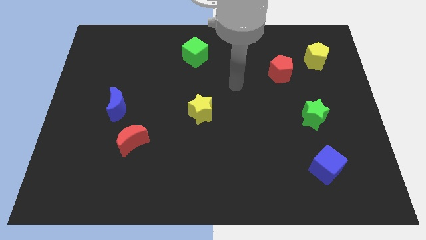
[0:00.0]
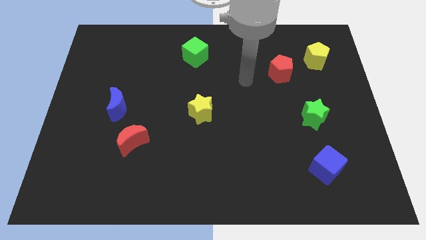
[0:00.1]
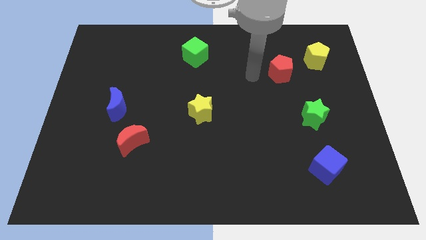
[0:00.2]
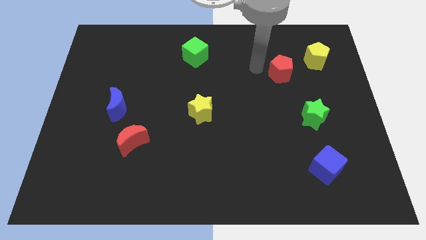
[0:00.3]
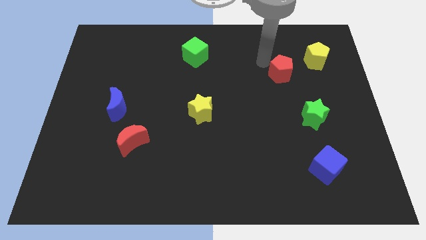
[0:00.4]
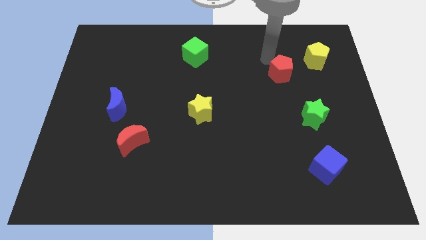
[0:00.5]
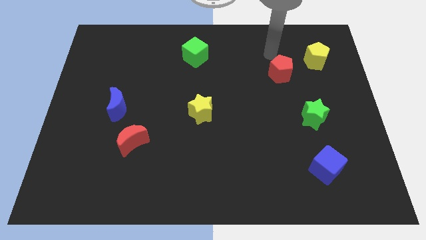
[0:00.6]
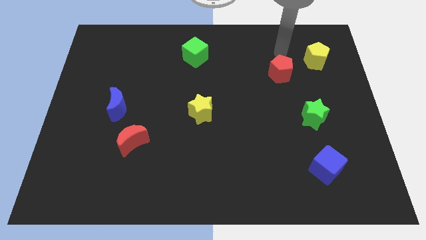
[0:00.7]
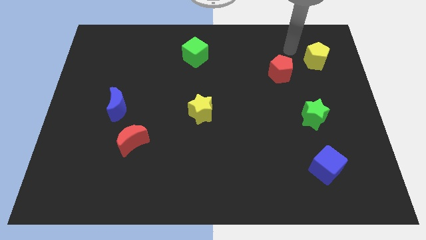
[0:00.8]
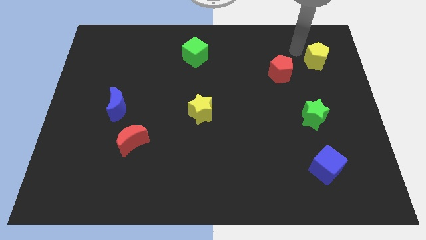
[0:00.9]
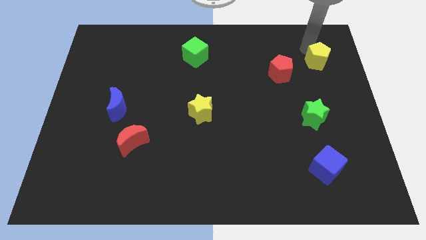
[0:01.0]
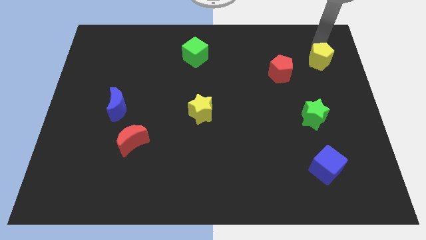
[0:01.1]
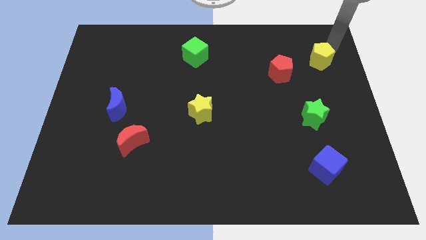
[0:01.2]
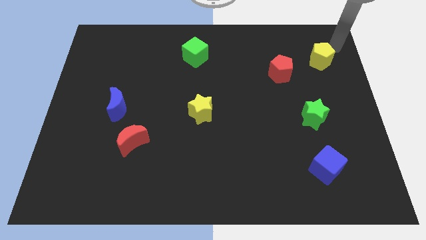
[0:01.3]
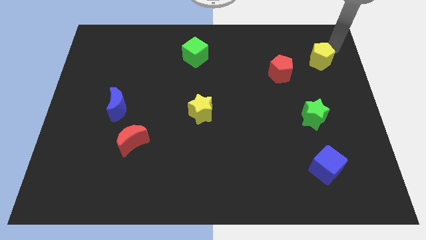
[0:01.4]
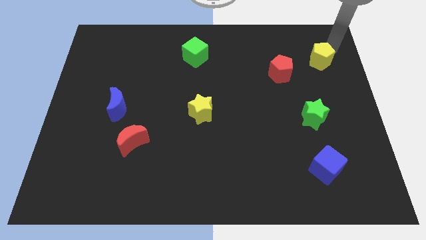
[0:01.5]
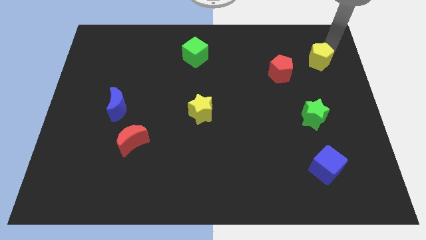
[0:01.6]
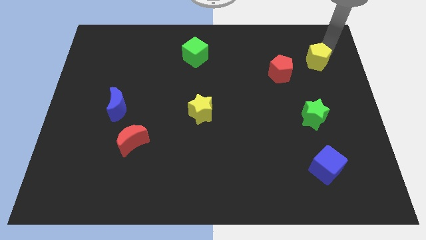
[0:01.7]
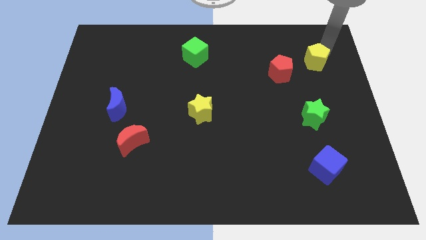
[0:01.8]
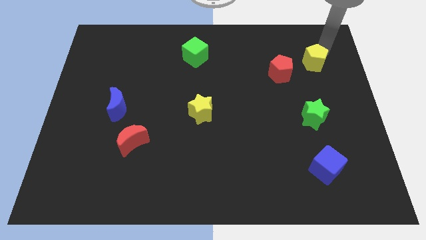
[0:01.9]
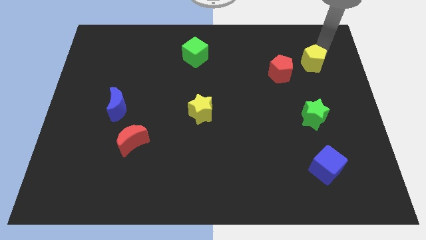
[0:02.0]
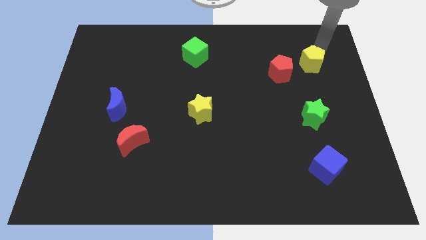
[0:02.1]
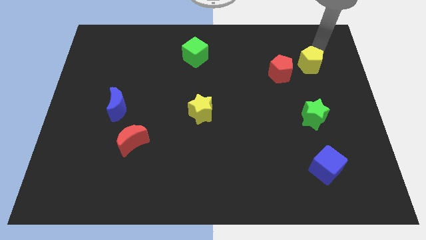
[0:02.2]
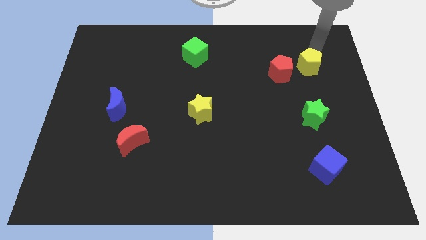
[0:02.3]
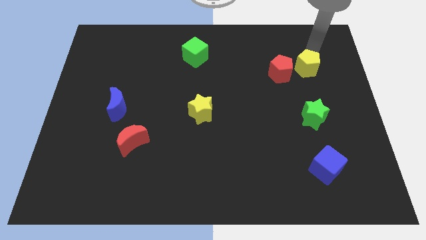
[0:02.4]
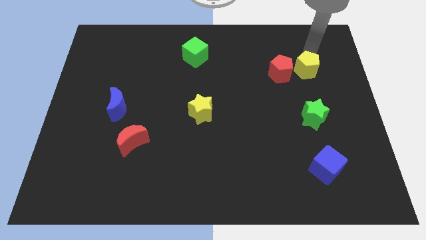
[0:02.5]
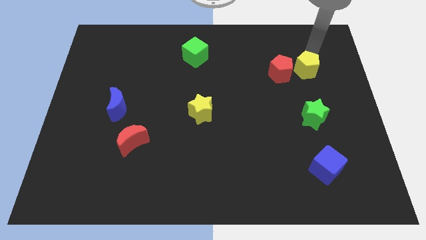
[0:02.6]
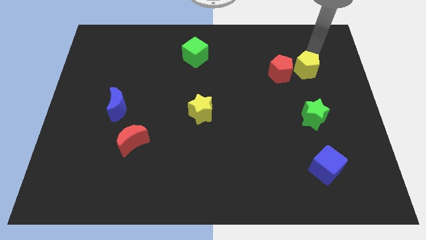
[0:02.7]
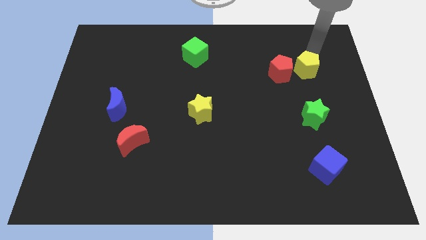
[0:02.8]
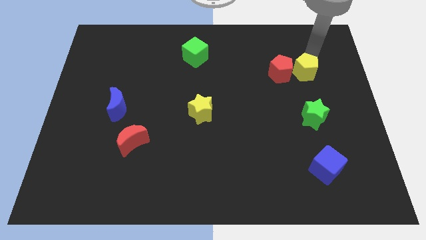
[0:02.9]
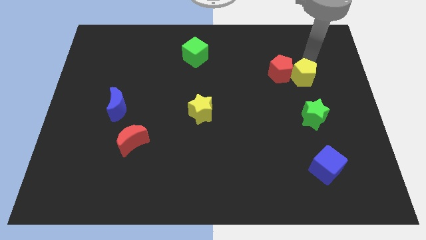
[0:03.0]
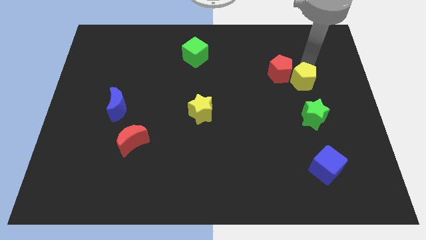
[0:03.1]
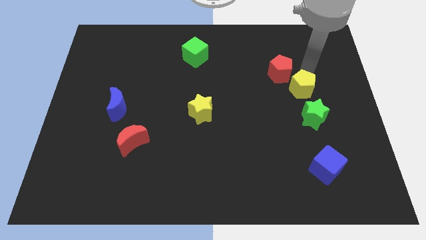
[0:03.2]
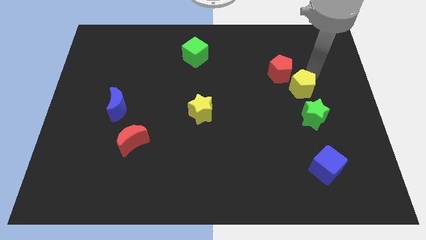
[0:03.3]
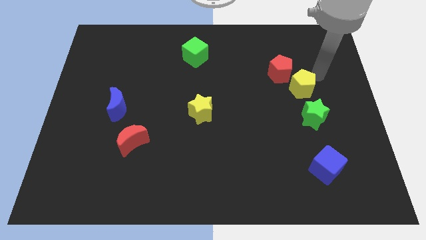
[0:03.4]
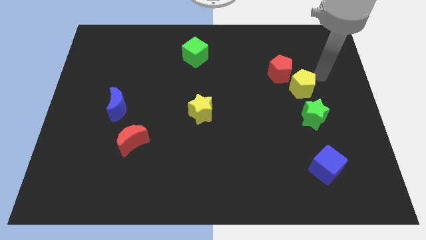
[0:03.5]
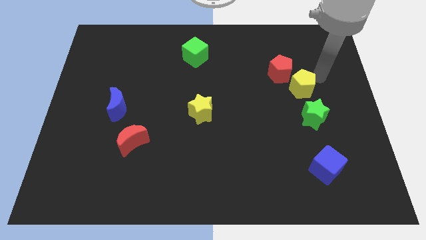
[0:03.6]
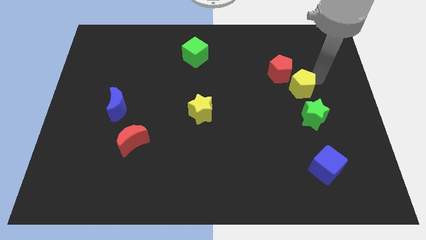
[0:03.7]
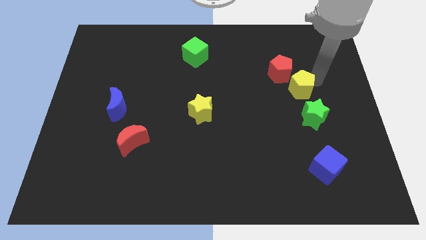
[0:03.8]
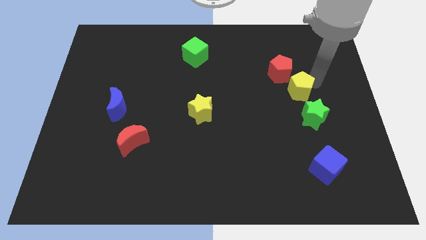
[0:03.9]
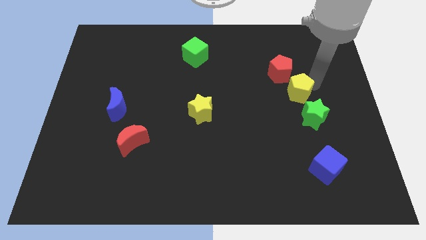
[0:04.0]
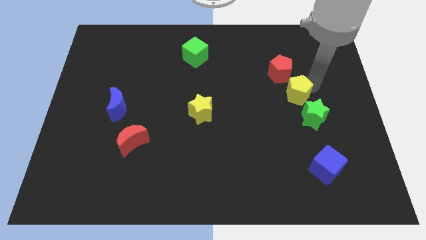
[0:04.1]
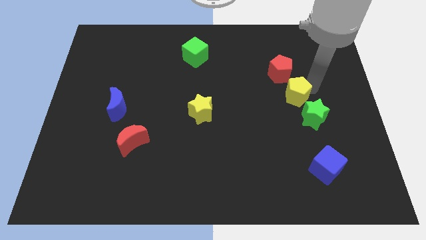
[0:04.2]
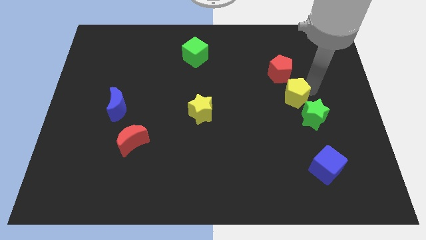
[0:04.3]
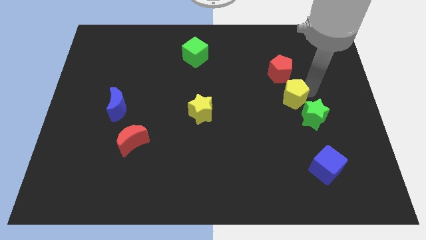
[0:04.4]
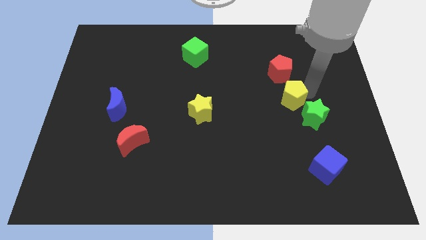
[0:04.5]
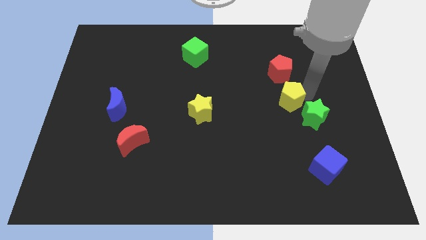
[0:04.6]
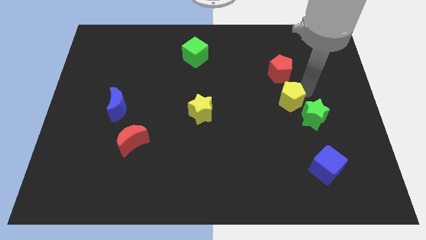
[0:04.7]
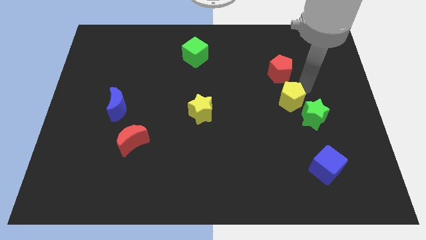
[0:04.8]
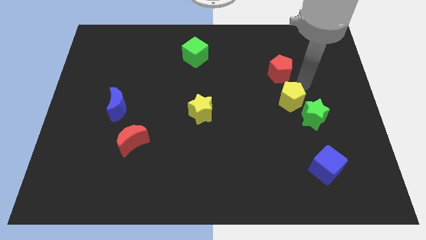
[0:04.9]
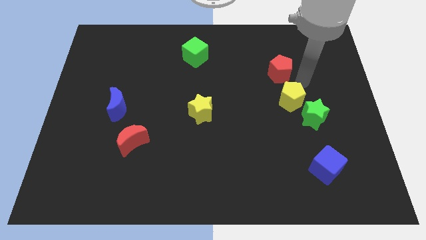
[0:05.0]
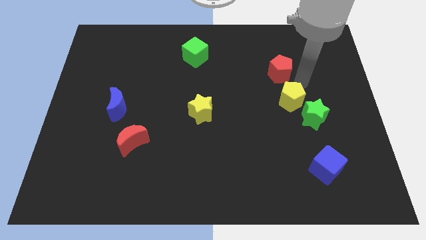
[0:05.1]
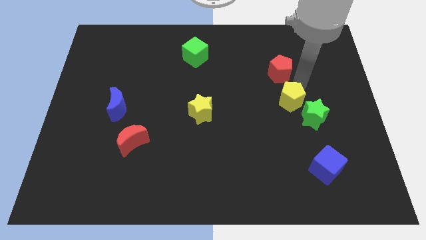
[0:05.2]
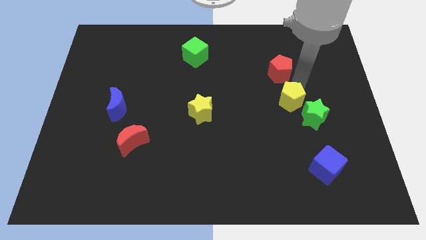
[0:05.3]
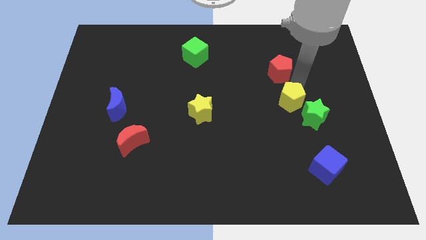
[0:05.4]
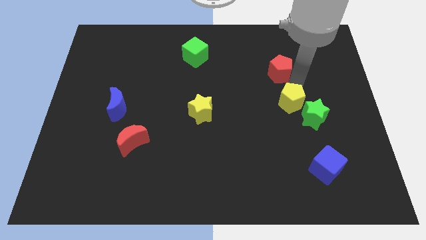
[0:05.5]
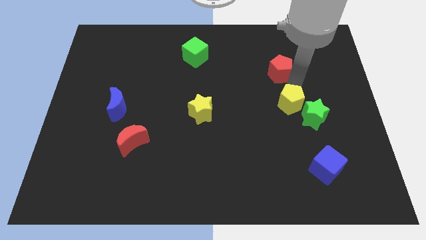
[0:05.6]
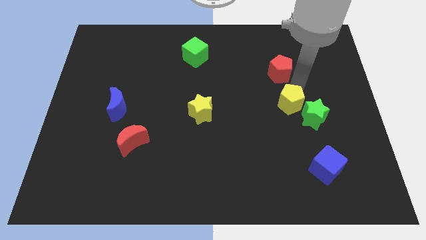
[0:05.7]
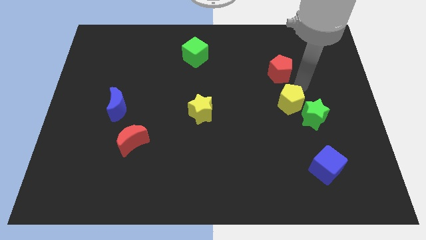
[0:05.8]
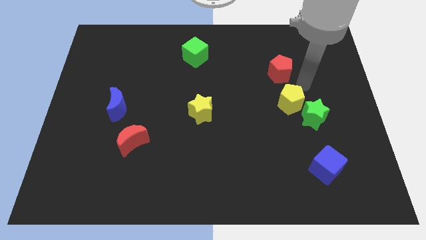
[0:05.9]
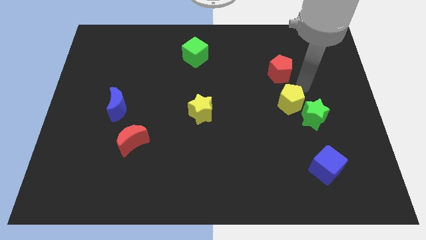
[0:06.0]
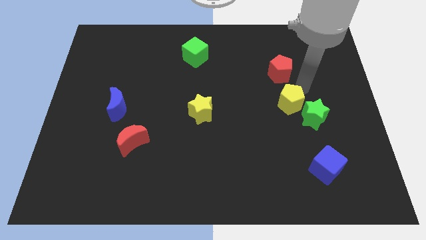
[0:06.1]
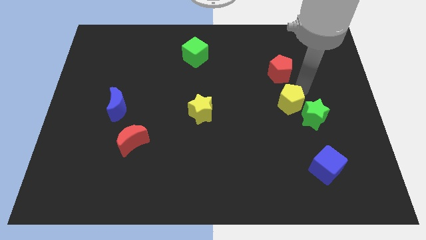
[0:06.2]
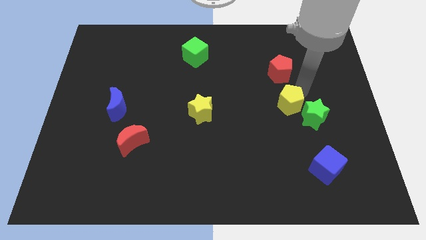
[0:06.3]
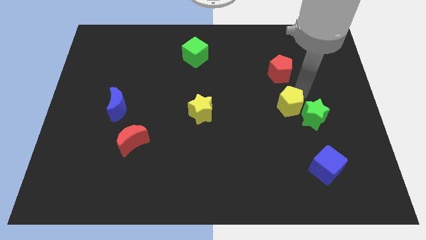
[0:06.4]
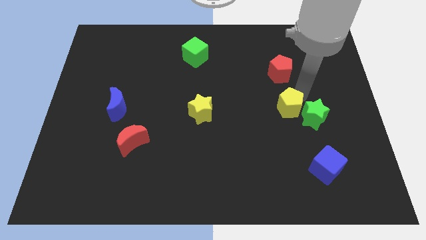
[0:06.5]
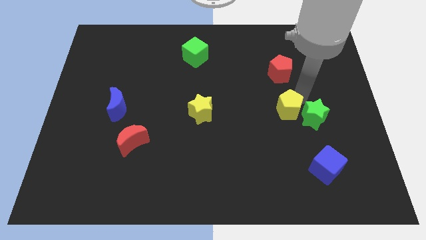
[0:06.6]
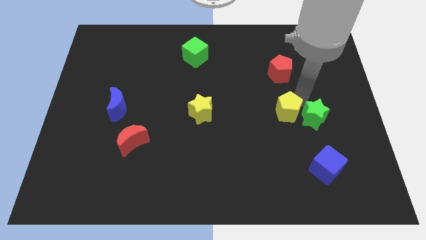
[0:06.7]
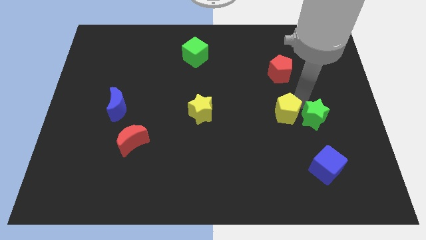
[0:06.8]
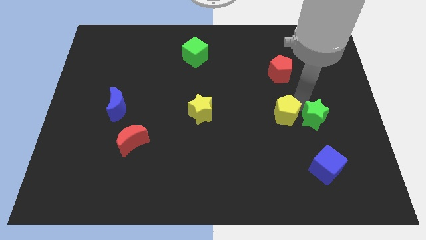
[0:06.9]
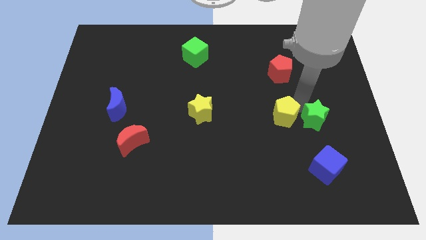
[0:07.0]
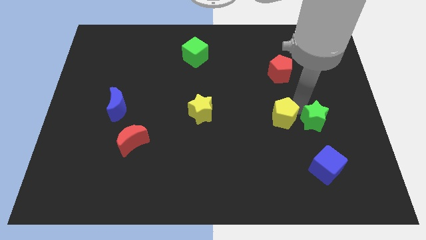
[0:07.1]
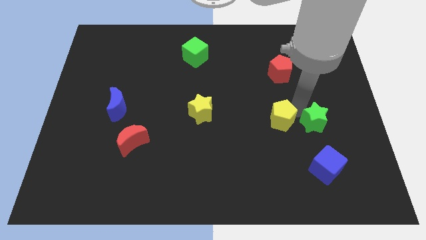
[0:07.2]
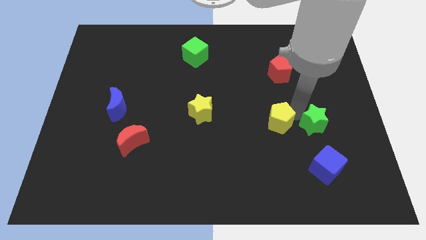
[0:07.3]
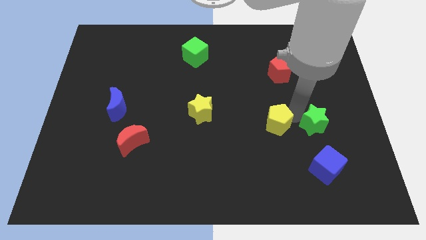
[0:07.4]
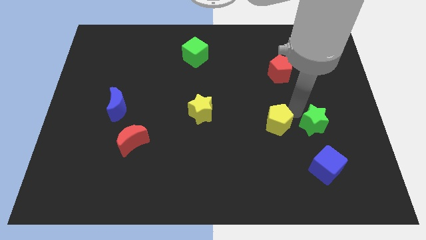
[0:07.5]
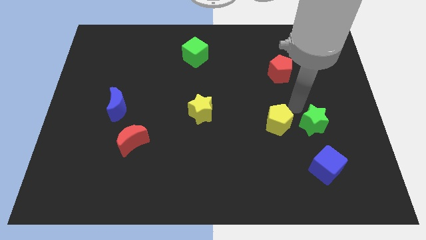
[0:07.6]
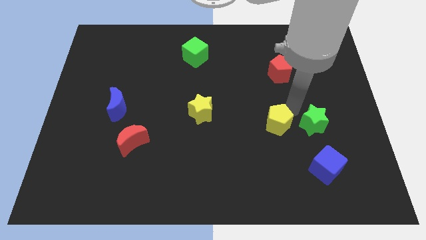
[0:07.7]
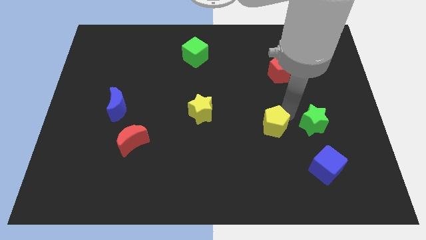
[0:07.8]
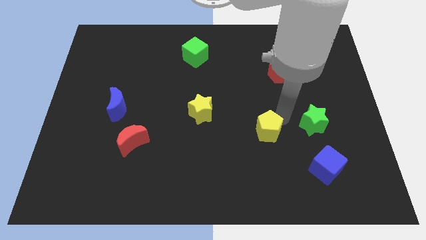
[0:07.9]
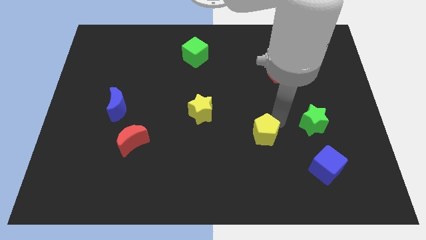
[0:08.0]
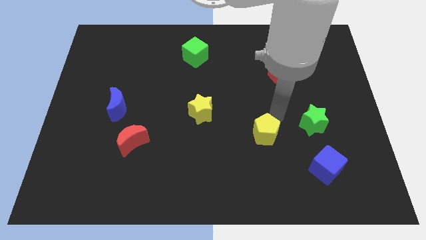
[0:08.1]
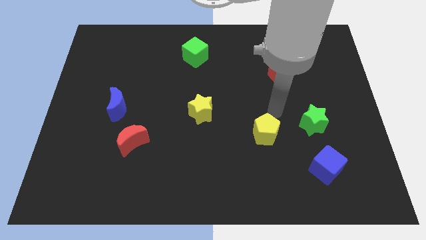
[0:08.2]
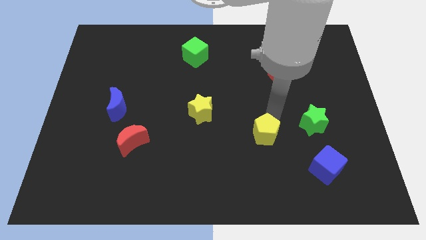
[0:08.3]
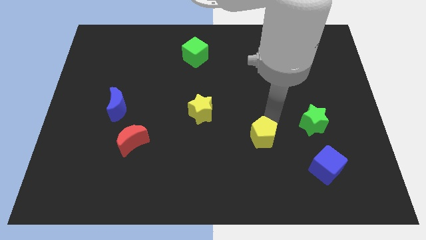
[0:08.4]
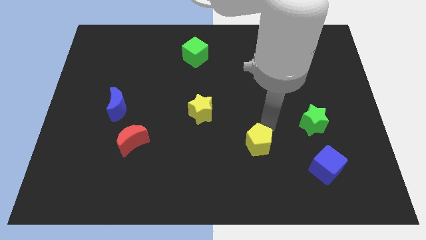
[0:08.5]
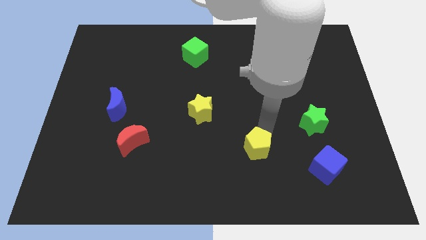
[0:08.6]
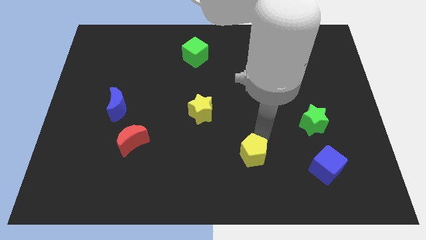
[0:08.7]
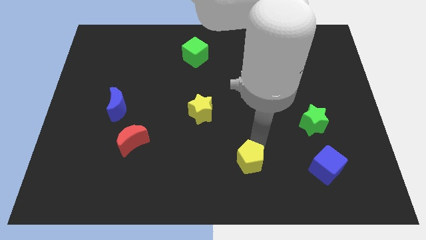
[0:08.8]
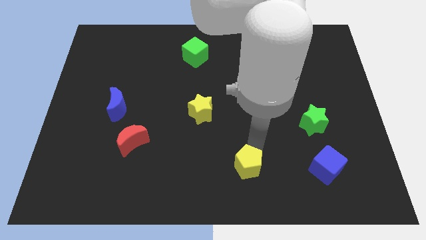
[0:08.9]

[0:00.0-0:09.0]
push the yellow pentagon to the bottom side
